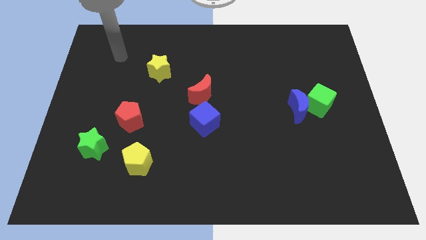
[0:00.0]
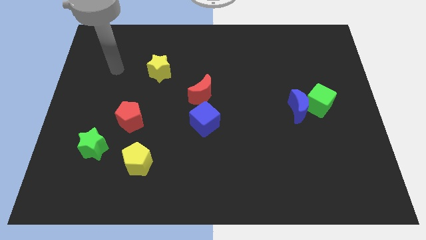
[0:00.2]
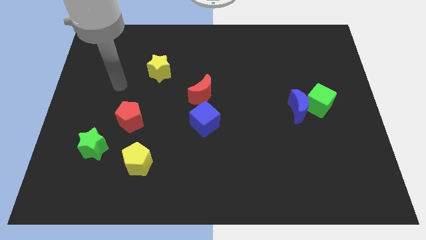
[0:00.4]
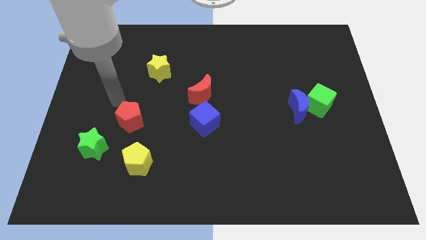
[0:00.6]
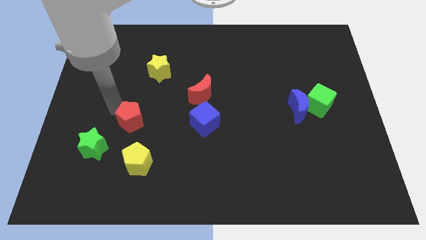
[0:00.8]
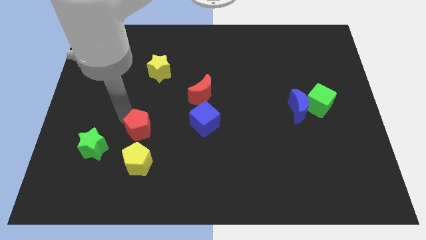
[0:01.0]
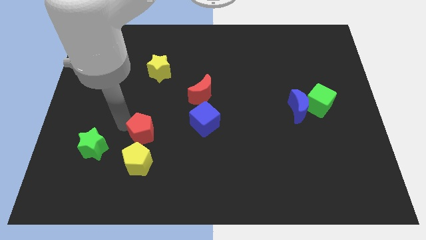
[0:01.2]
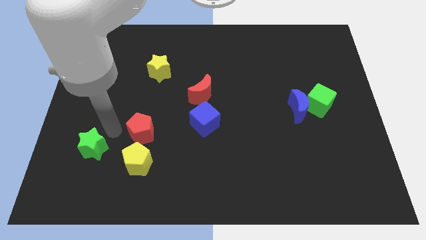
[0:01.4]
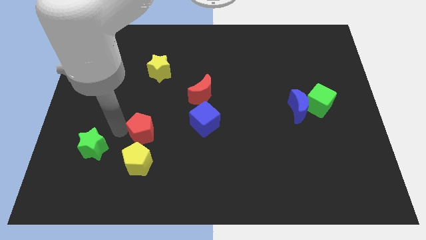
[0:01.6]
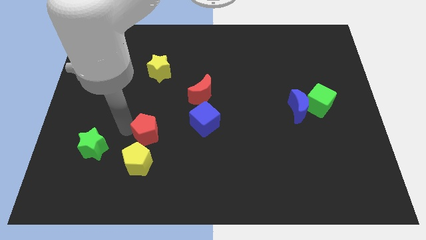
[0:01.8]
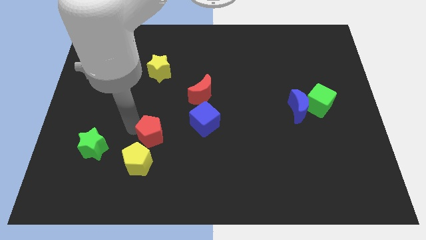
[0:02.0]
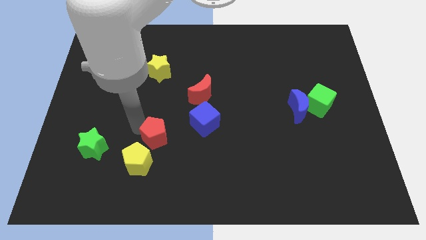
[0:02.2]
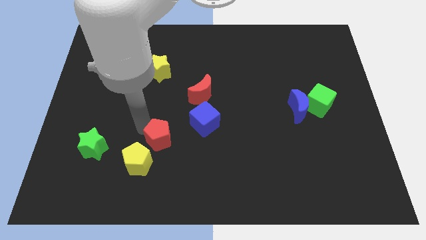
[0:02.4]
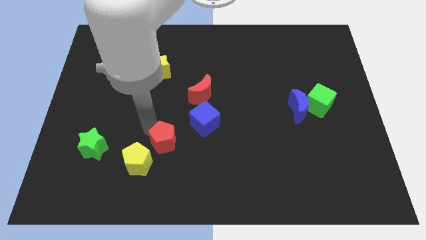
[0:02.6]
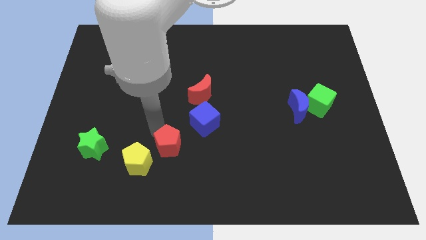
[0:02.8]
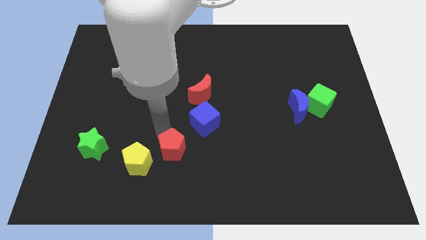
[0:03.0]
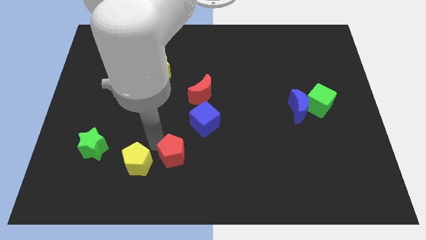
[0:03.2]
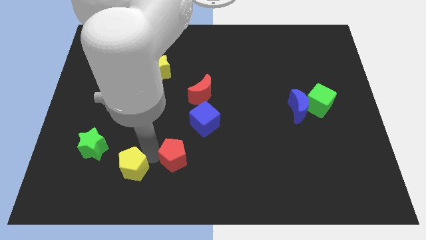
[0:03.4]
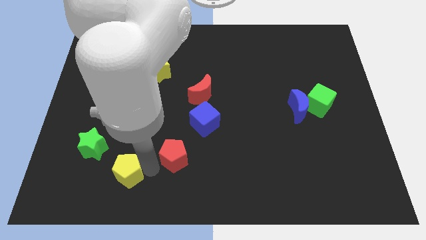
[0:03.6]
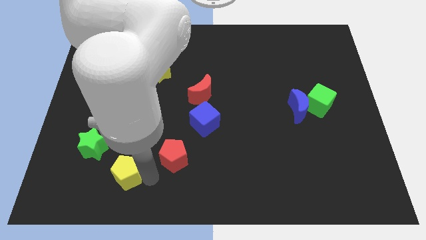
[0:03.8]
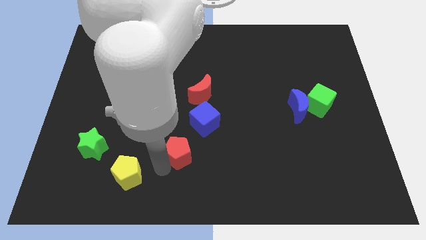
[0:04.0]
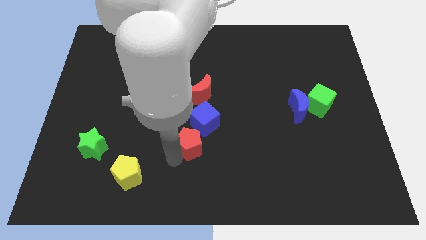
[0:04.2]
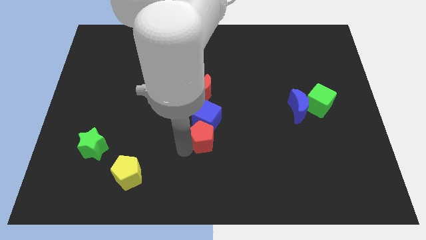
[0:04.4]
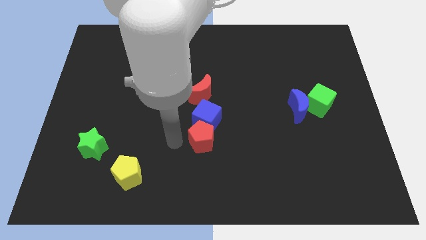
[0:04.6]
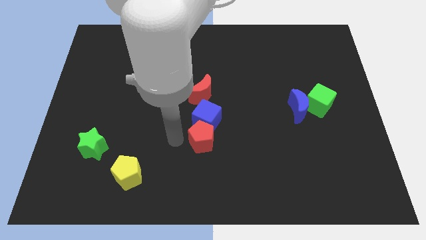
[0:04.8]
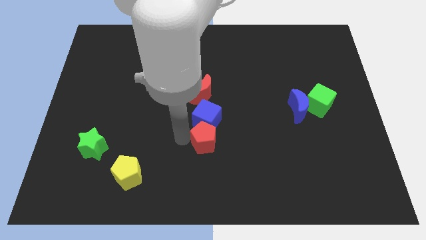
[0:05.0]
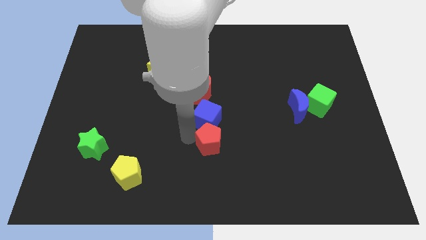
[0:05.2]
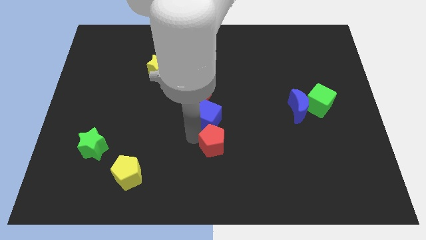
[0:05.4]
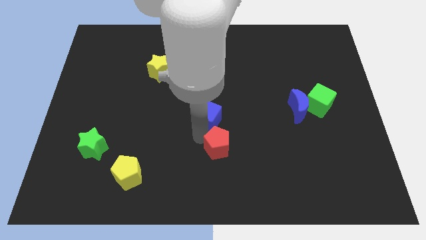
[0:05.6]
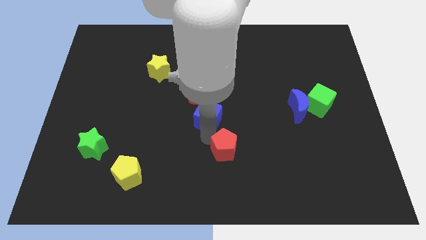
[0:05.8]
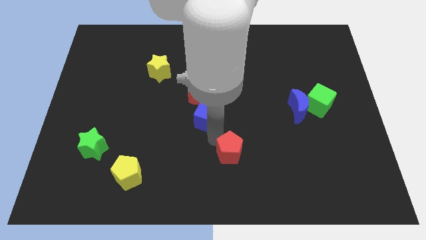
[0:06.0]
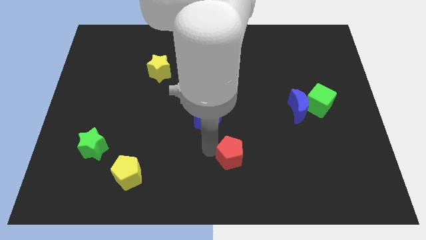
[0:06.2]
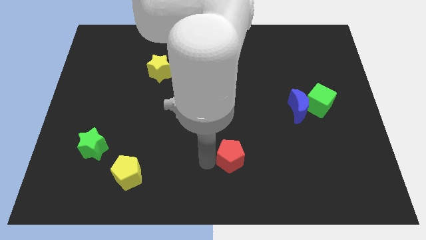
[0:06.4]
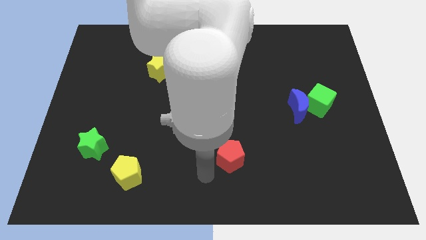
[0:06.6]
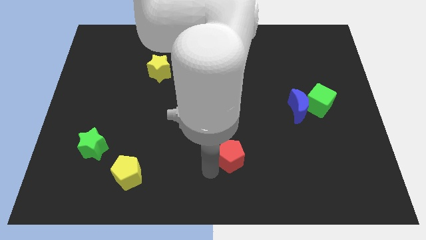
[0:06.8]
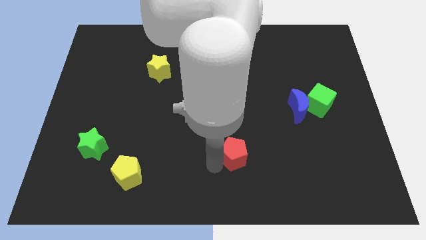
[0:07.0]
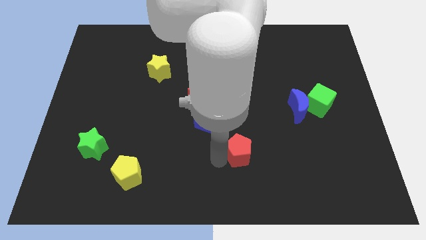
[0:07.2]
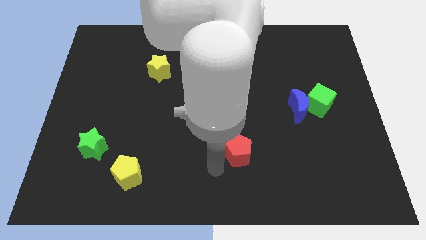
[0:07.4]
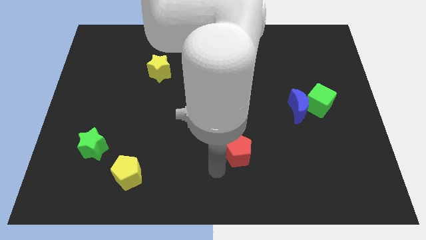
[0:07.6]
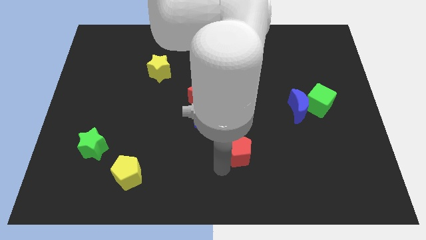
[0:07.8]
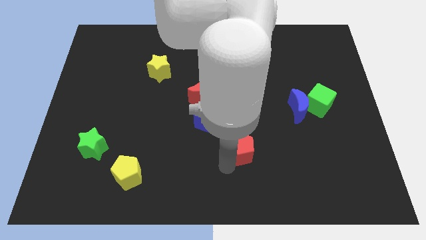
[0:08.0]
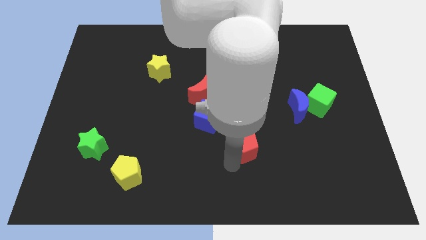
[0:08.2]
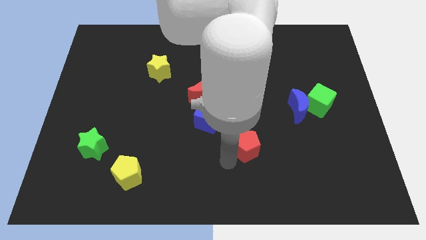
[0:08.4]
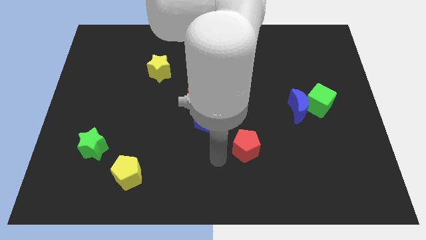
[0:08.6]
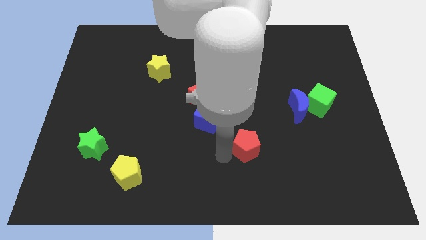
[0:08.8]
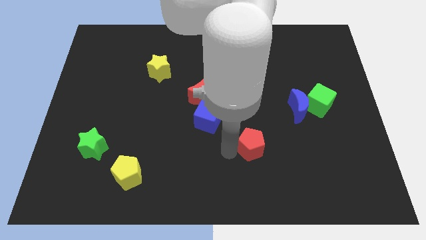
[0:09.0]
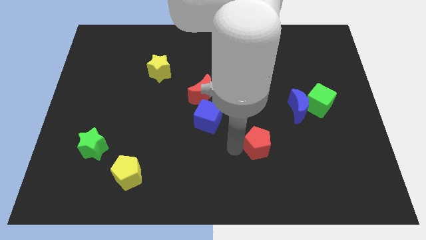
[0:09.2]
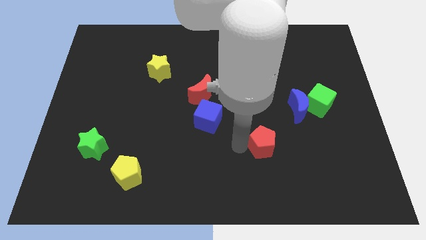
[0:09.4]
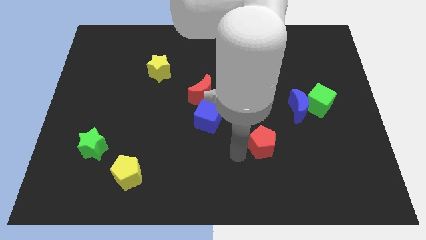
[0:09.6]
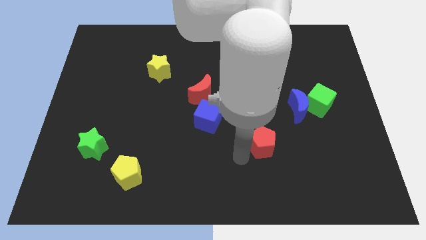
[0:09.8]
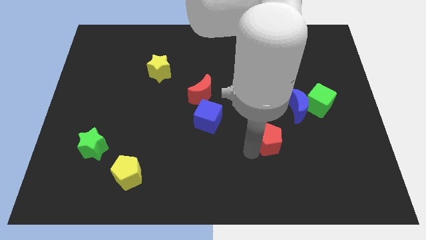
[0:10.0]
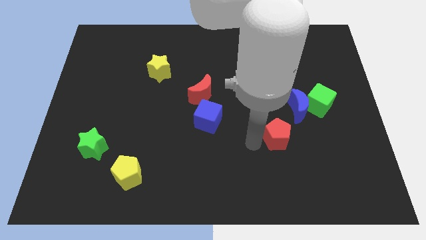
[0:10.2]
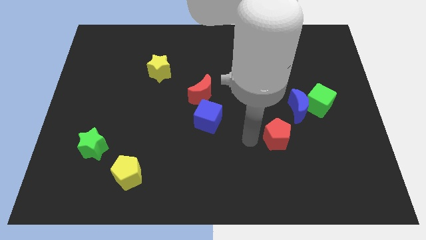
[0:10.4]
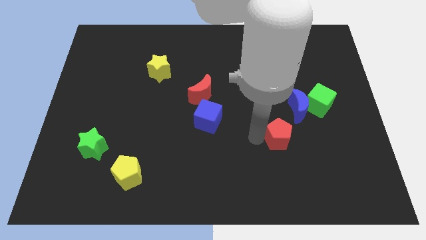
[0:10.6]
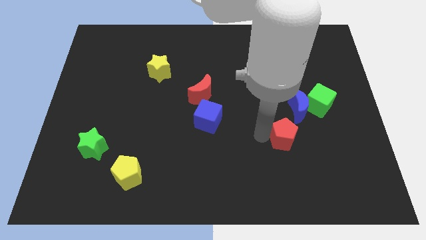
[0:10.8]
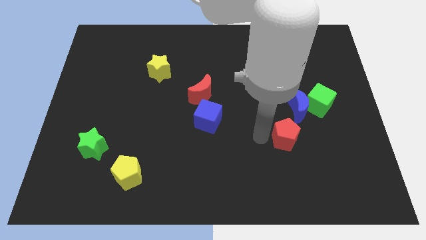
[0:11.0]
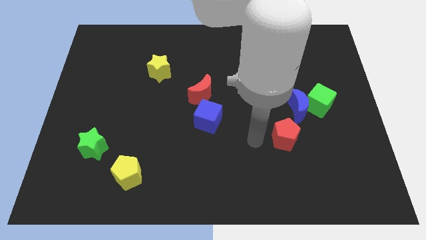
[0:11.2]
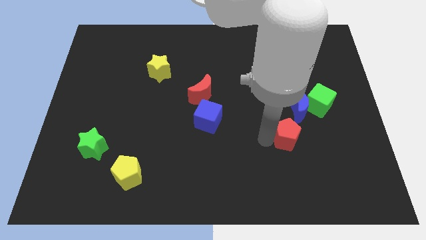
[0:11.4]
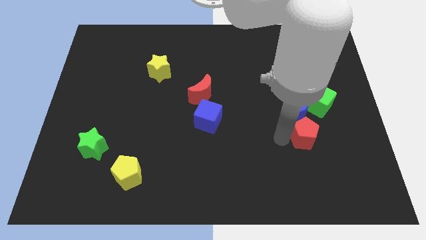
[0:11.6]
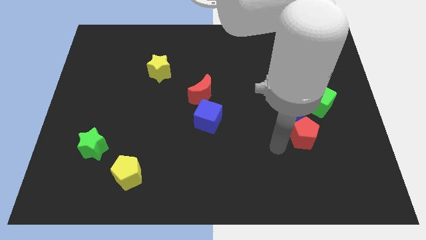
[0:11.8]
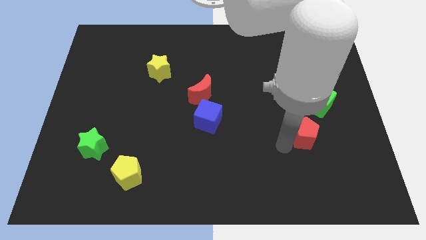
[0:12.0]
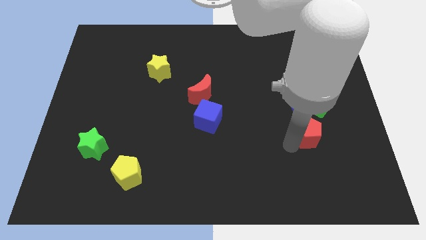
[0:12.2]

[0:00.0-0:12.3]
put the red pentagon to the bottom right side of the blue moon

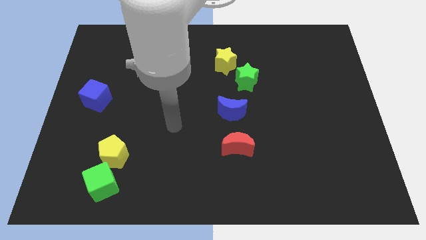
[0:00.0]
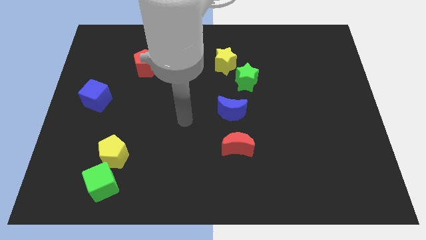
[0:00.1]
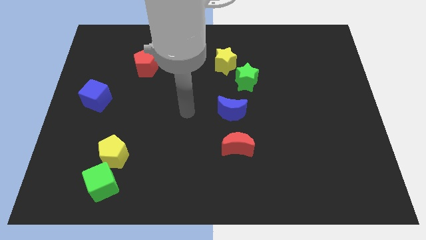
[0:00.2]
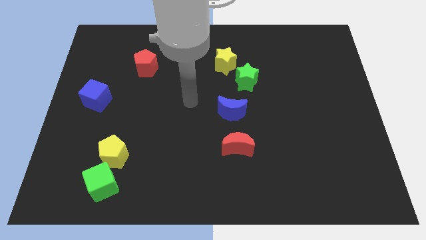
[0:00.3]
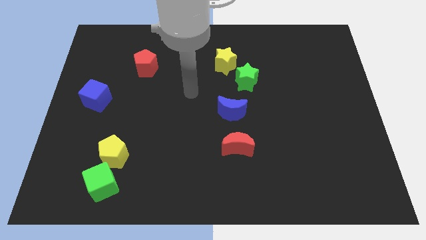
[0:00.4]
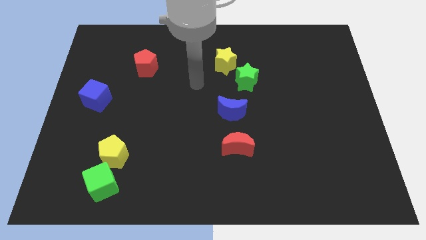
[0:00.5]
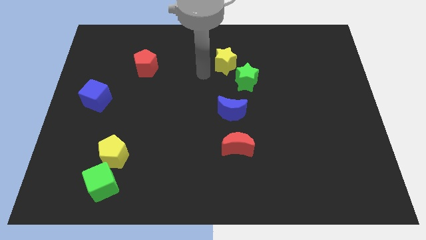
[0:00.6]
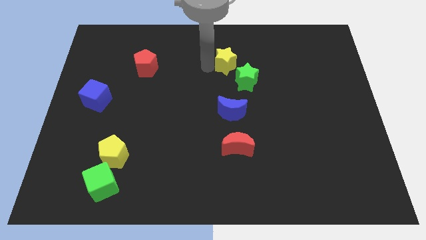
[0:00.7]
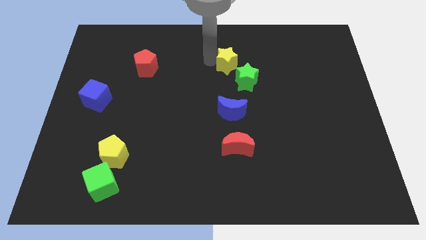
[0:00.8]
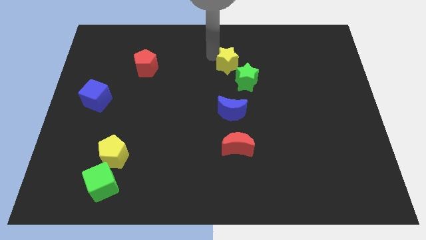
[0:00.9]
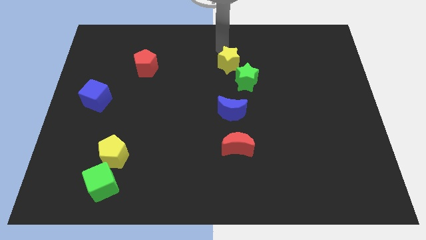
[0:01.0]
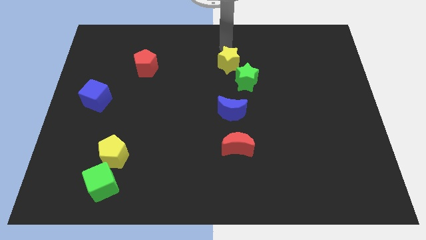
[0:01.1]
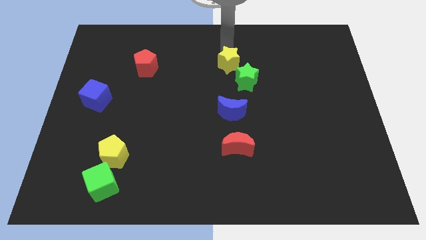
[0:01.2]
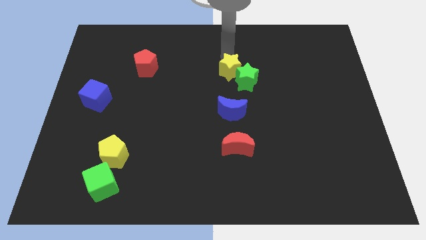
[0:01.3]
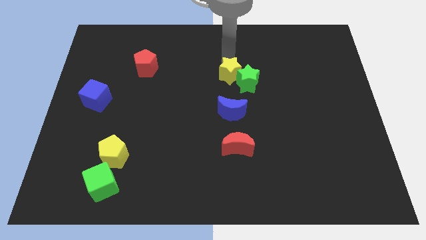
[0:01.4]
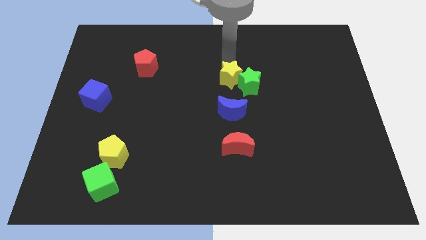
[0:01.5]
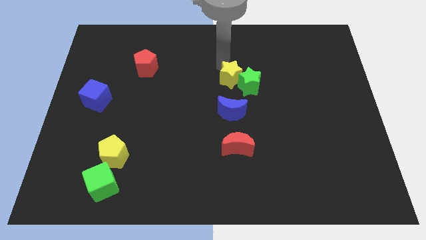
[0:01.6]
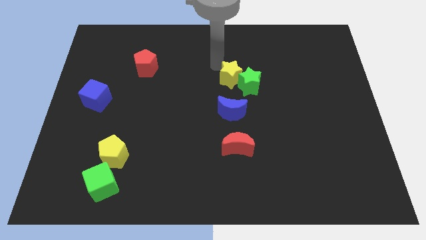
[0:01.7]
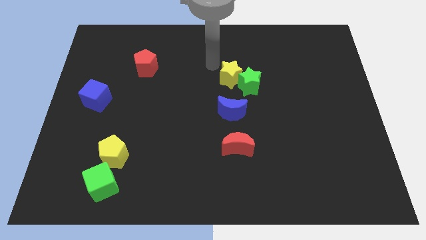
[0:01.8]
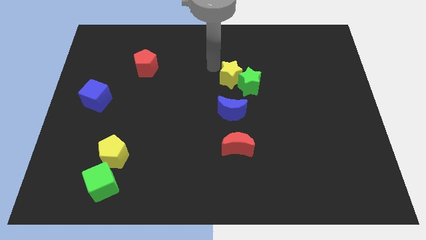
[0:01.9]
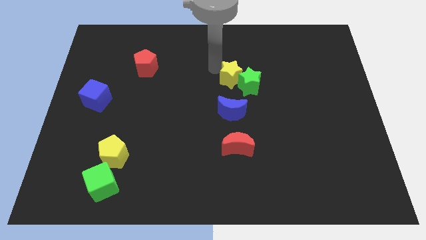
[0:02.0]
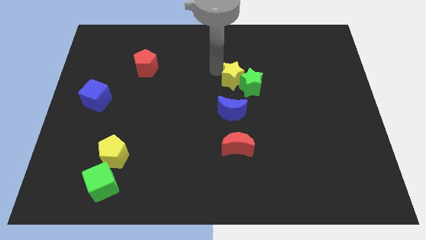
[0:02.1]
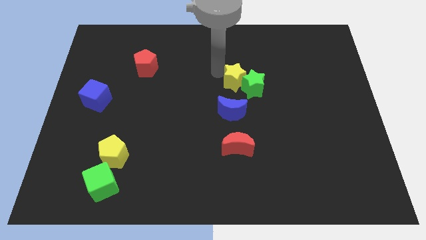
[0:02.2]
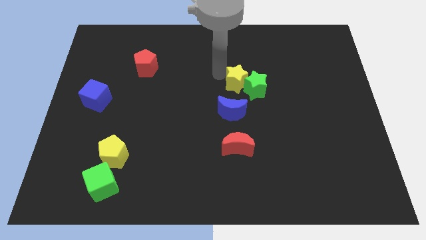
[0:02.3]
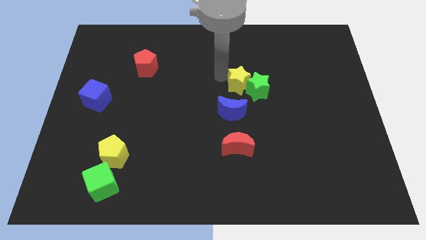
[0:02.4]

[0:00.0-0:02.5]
move the yellow star diagonally up and to the right of the blue moon
